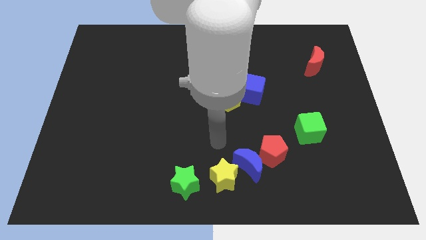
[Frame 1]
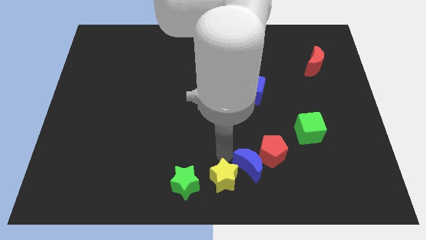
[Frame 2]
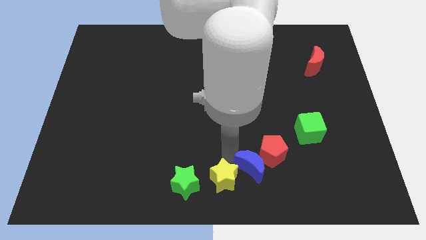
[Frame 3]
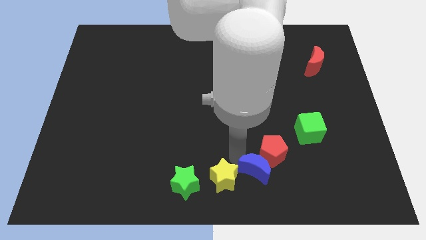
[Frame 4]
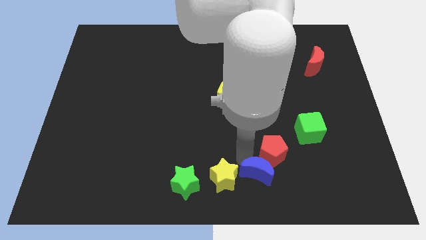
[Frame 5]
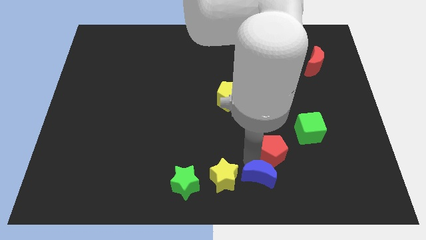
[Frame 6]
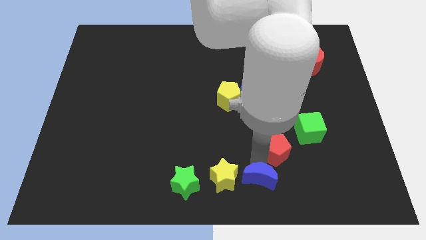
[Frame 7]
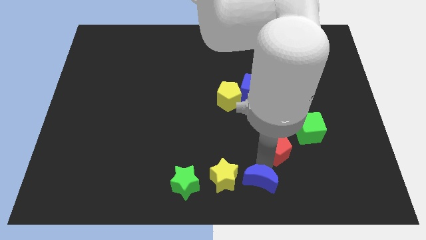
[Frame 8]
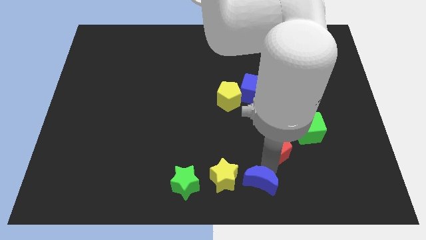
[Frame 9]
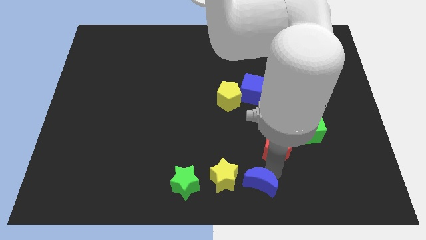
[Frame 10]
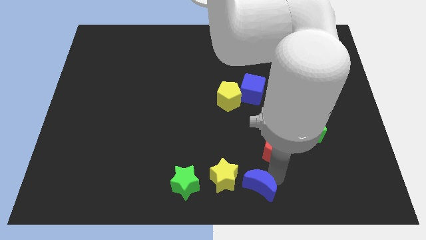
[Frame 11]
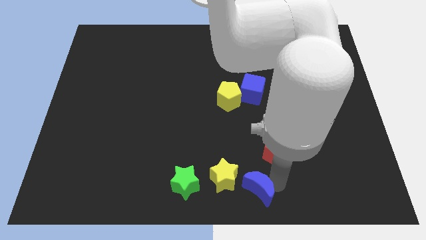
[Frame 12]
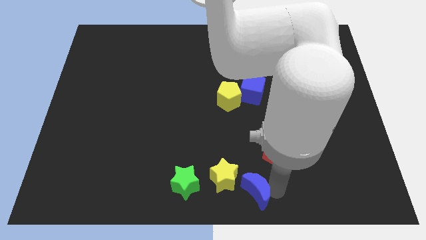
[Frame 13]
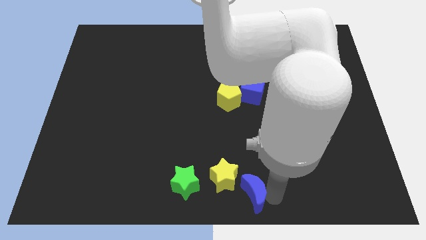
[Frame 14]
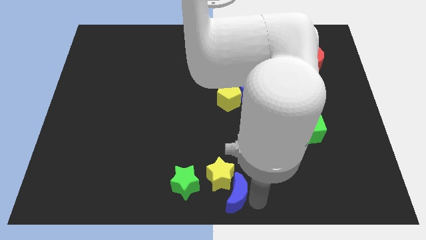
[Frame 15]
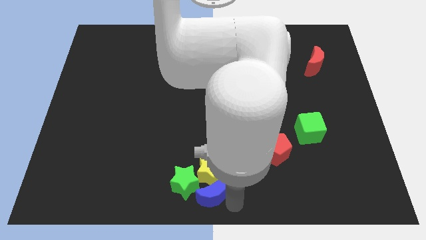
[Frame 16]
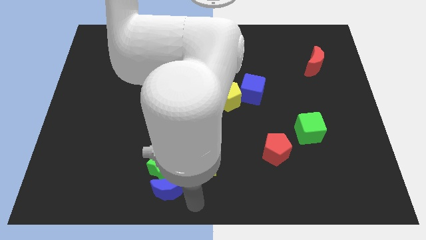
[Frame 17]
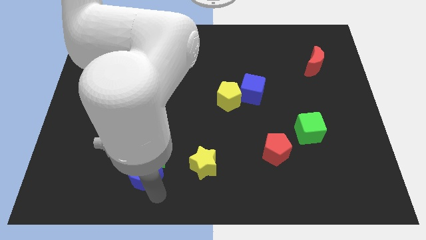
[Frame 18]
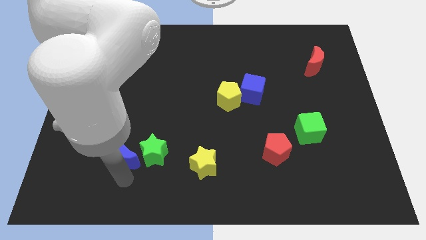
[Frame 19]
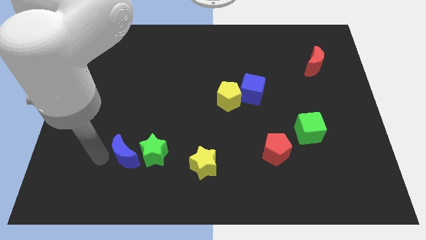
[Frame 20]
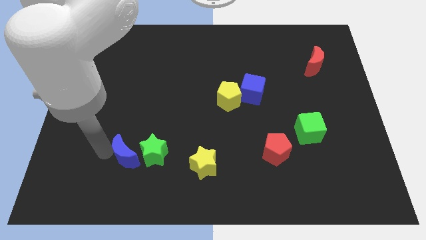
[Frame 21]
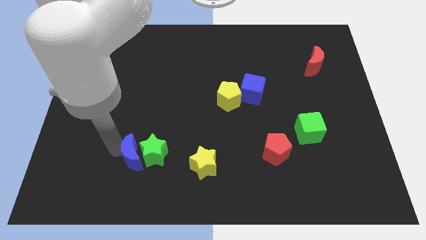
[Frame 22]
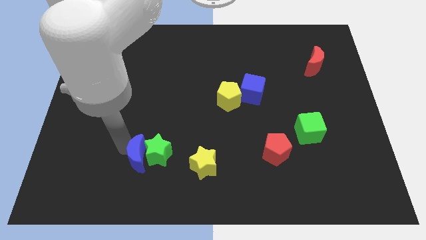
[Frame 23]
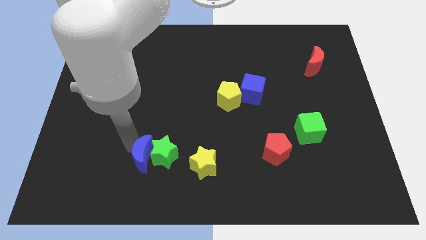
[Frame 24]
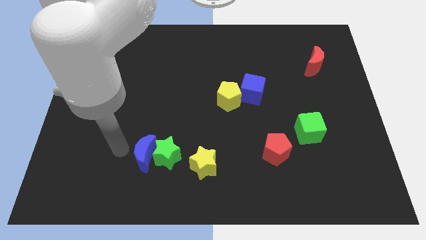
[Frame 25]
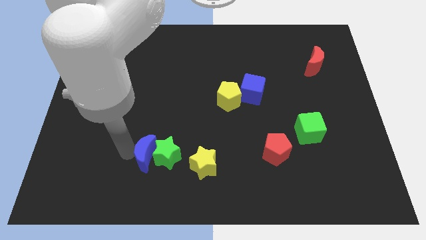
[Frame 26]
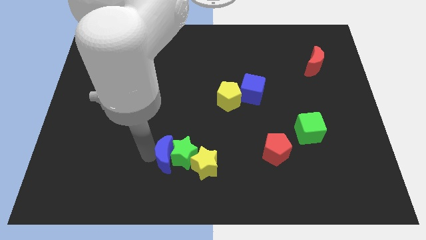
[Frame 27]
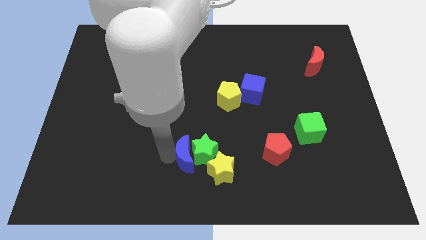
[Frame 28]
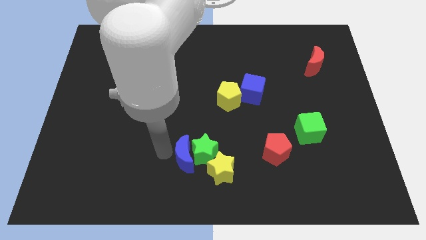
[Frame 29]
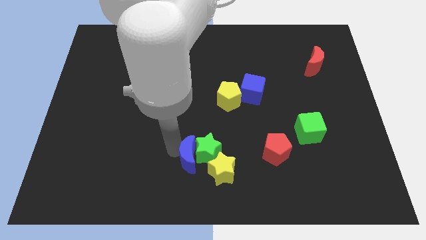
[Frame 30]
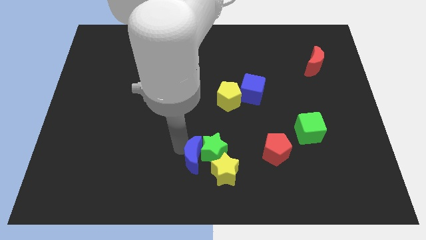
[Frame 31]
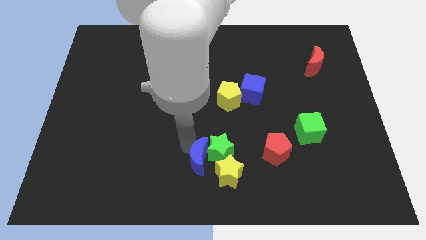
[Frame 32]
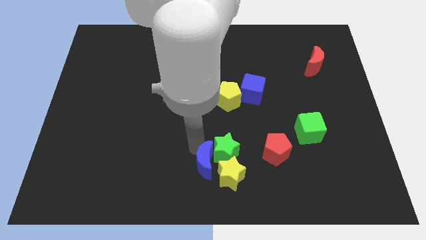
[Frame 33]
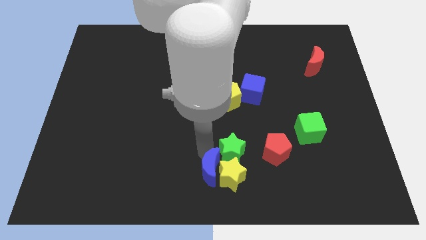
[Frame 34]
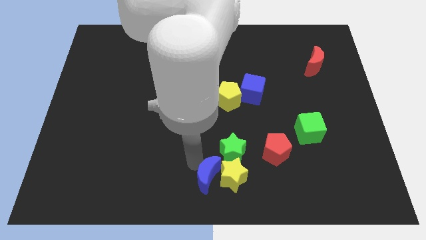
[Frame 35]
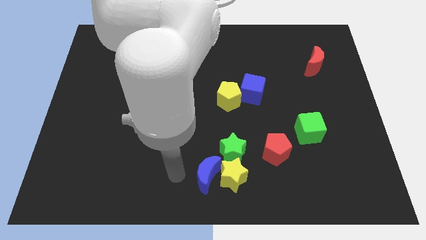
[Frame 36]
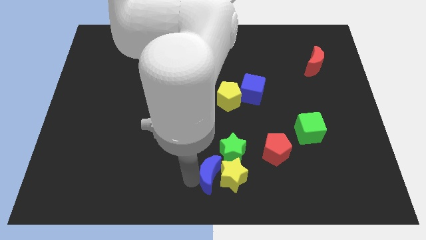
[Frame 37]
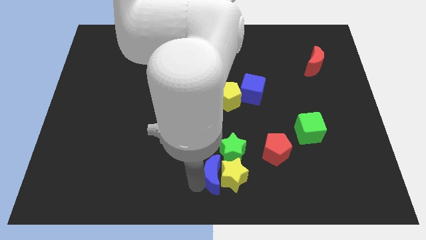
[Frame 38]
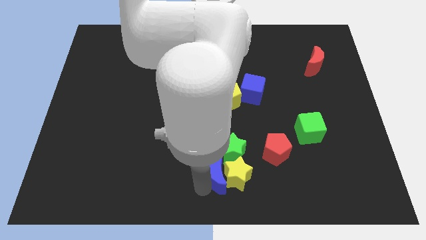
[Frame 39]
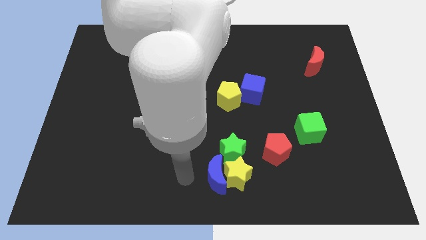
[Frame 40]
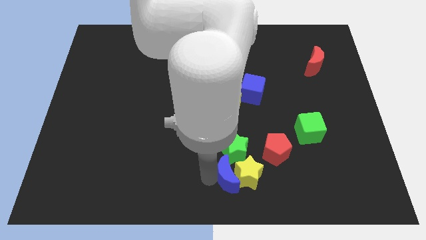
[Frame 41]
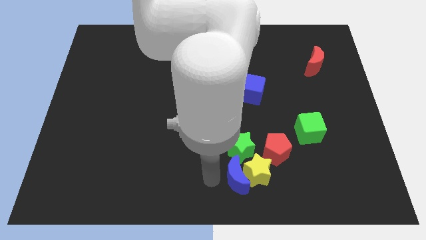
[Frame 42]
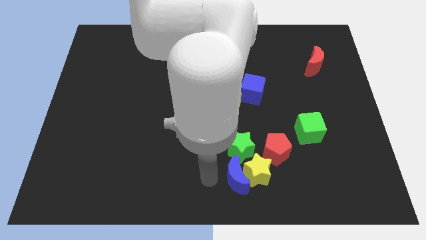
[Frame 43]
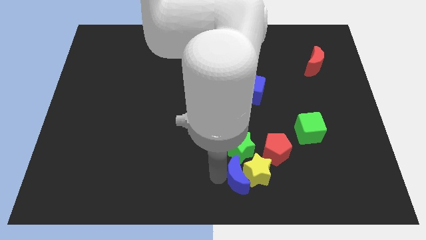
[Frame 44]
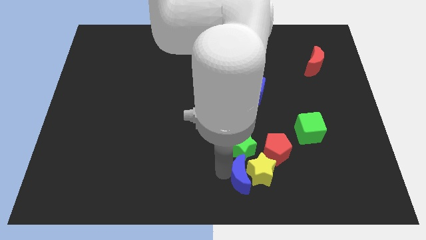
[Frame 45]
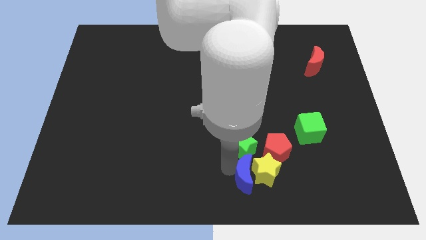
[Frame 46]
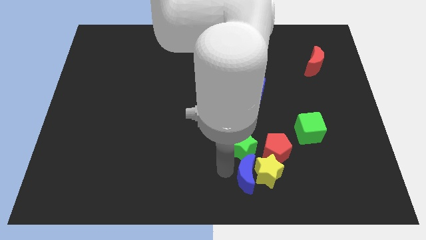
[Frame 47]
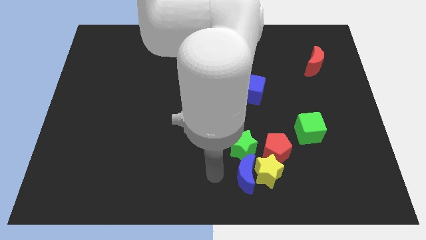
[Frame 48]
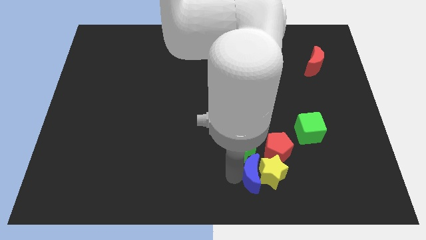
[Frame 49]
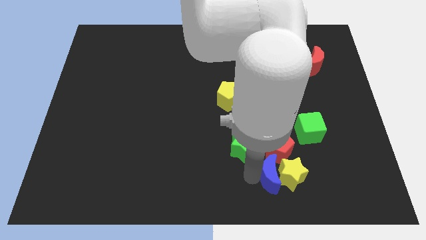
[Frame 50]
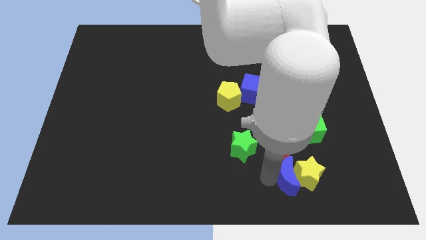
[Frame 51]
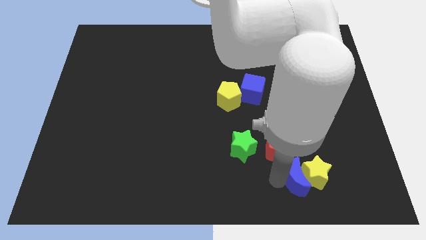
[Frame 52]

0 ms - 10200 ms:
slide the blue moon to the bottom of the green cube

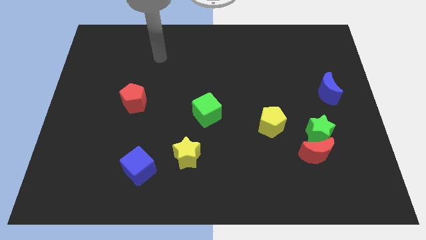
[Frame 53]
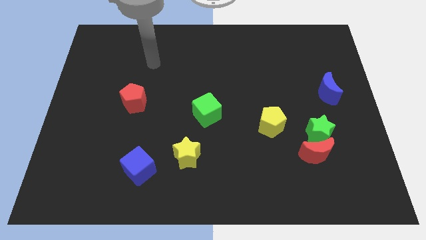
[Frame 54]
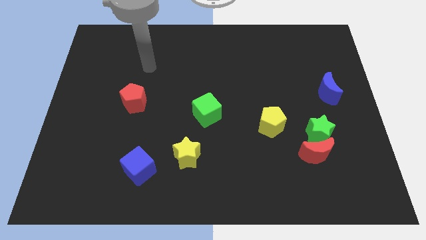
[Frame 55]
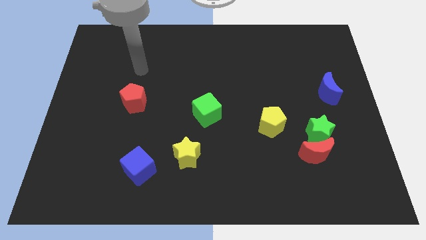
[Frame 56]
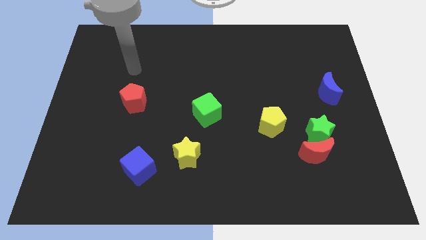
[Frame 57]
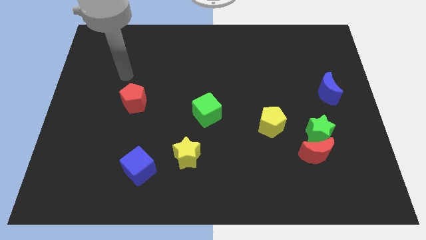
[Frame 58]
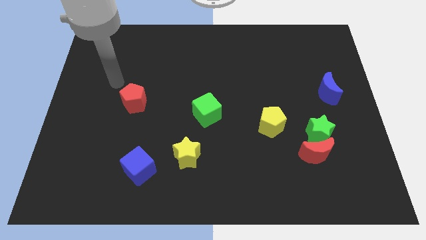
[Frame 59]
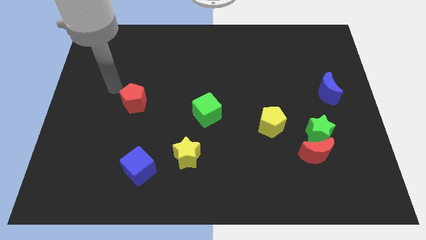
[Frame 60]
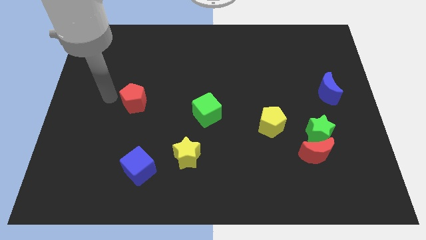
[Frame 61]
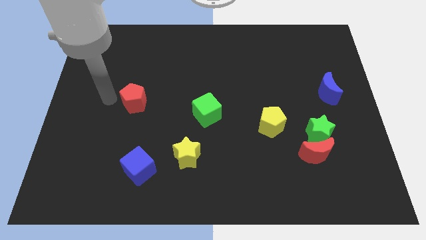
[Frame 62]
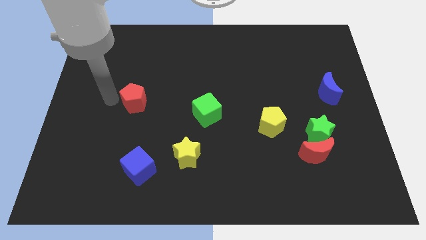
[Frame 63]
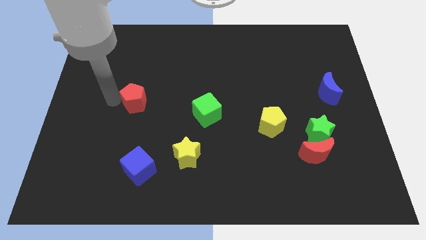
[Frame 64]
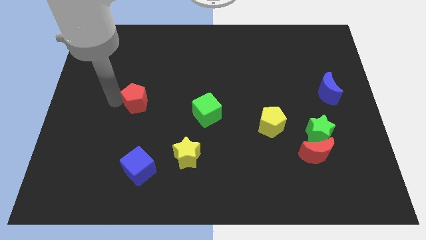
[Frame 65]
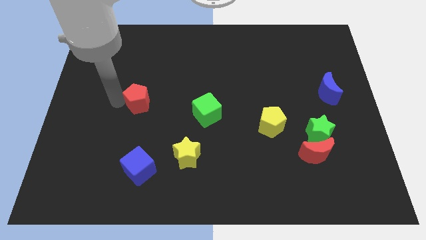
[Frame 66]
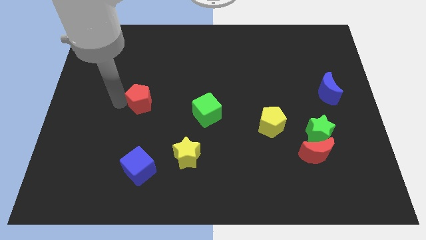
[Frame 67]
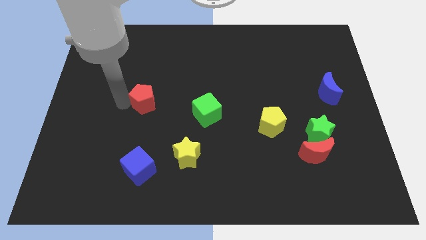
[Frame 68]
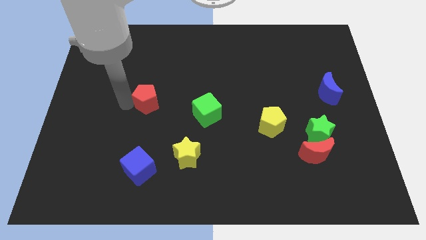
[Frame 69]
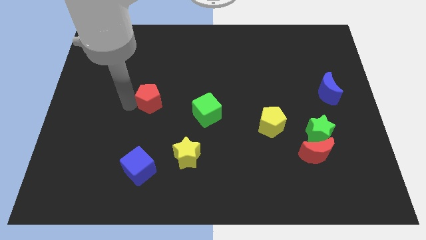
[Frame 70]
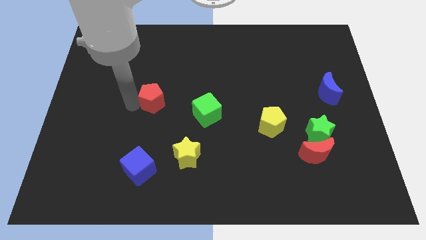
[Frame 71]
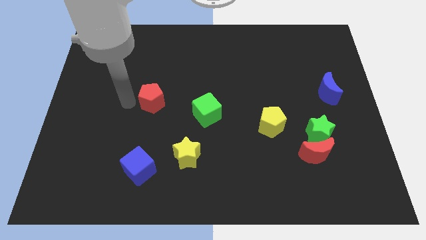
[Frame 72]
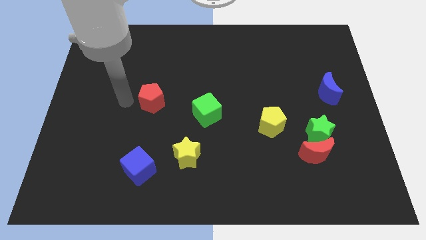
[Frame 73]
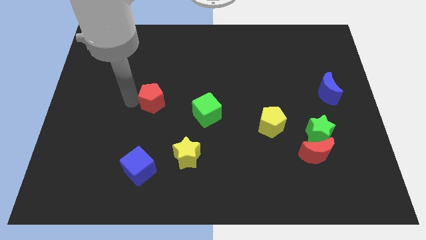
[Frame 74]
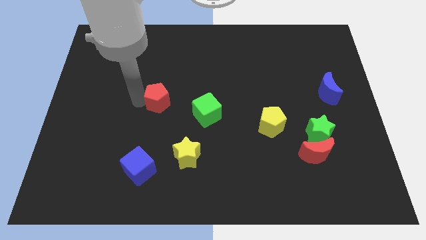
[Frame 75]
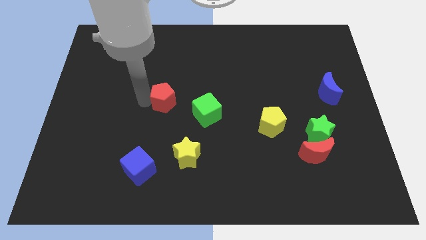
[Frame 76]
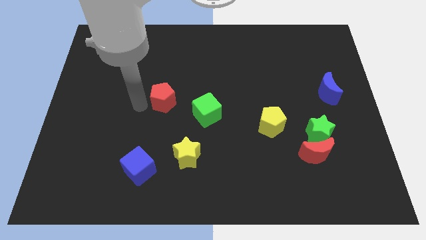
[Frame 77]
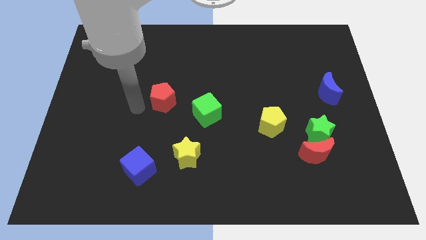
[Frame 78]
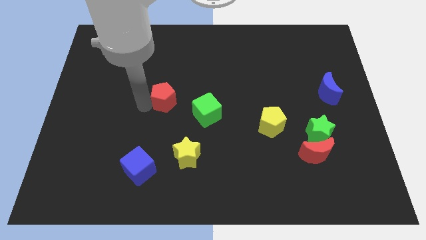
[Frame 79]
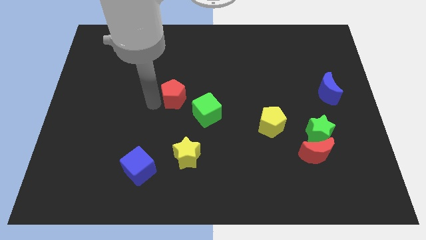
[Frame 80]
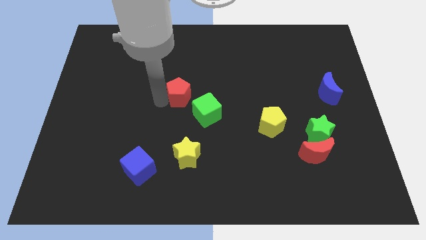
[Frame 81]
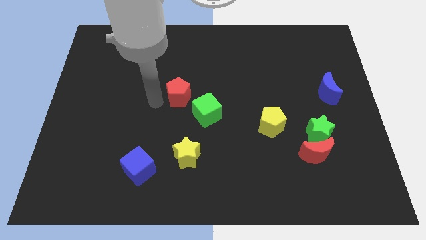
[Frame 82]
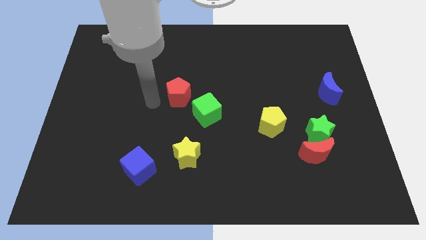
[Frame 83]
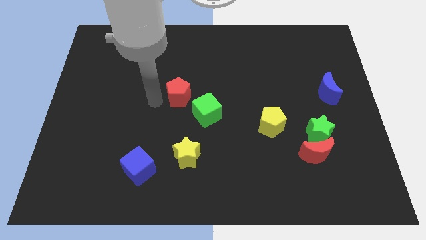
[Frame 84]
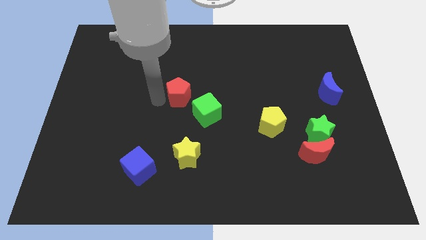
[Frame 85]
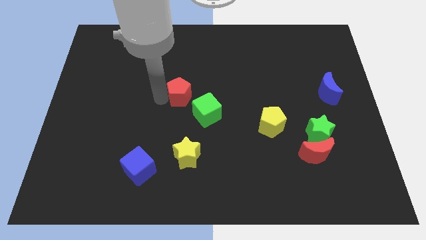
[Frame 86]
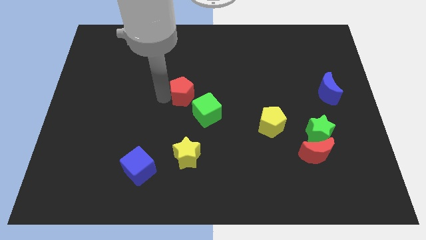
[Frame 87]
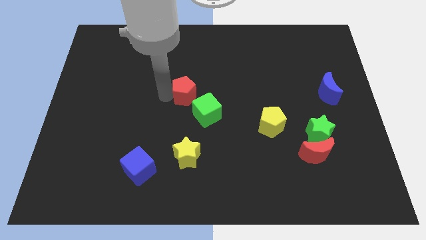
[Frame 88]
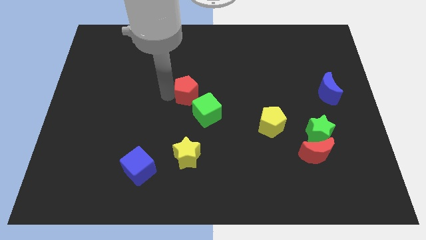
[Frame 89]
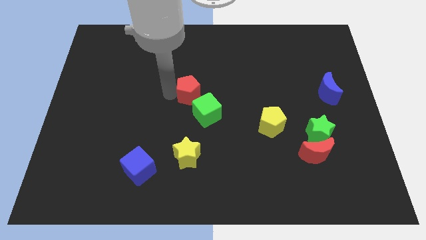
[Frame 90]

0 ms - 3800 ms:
slide the red pentagon above the green cube
